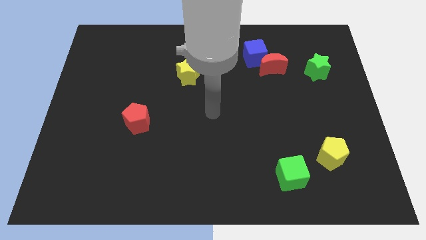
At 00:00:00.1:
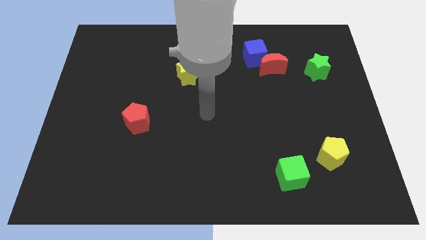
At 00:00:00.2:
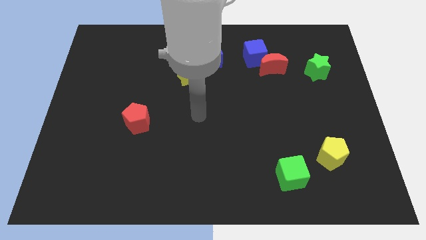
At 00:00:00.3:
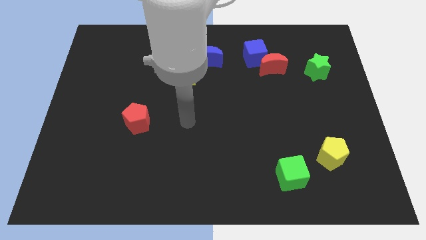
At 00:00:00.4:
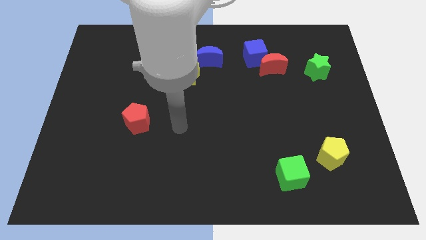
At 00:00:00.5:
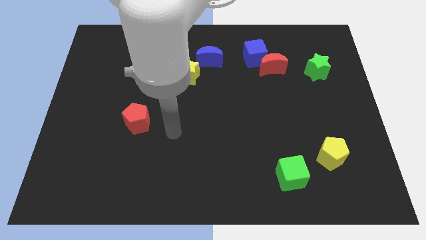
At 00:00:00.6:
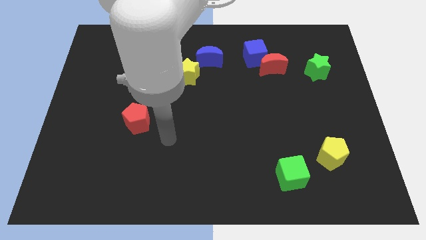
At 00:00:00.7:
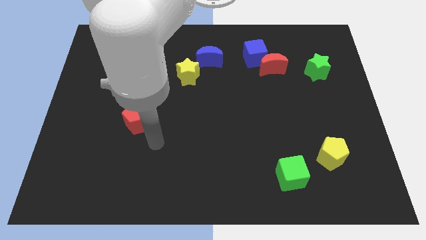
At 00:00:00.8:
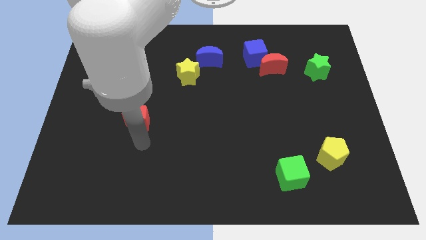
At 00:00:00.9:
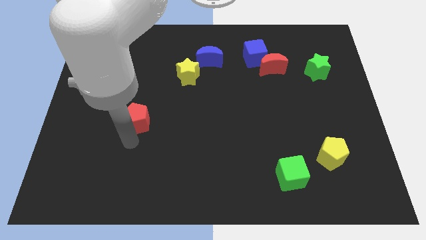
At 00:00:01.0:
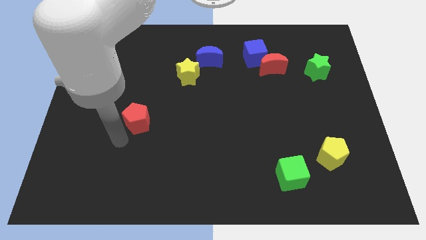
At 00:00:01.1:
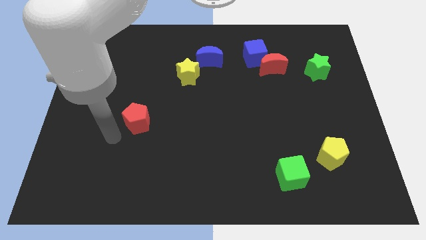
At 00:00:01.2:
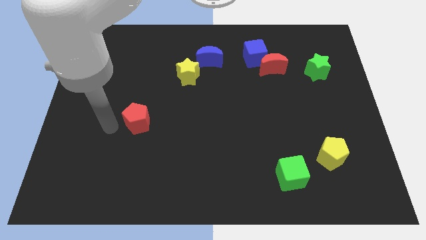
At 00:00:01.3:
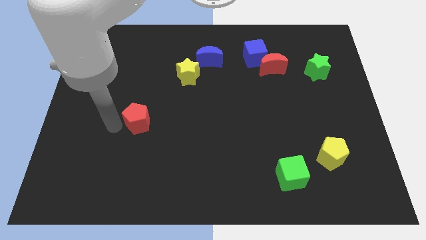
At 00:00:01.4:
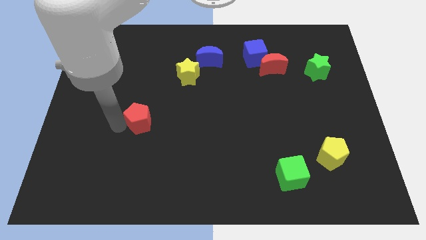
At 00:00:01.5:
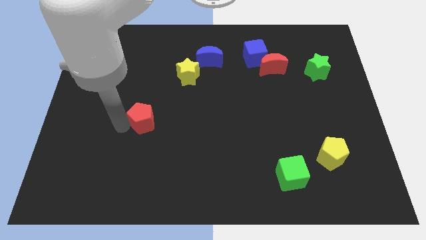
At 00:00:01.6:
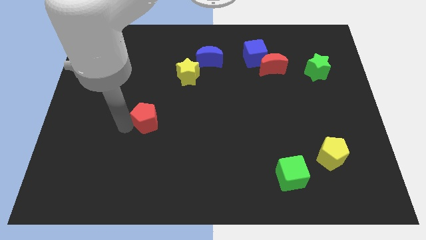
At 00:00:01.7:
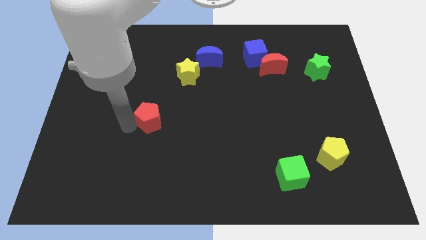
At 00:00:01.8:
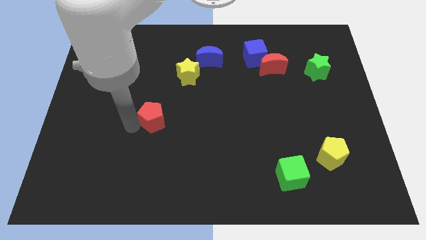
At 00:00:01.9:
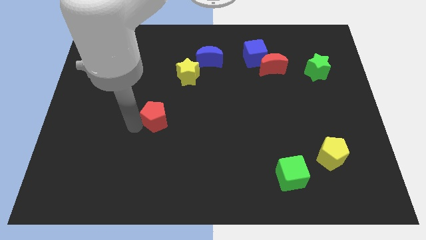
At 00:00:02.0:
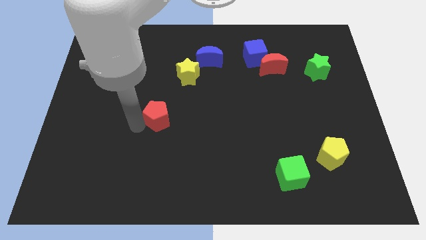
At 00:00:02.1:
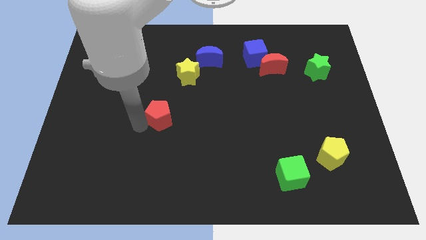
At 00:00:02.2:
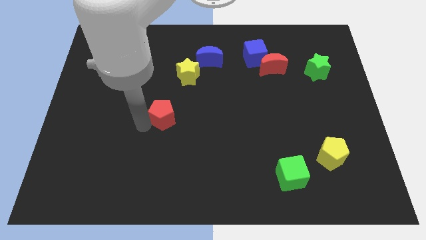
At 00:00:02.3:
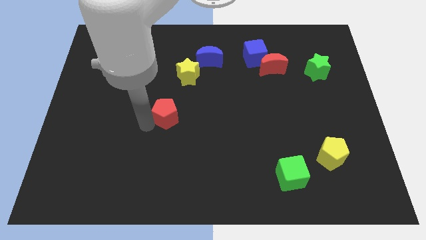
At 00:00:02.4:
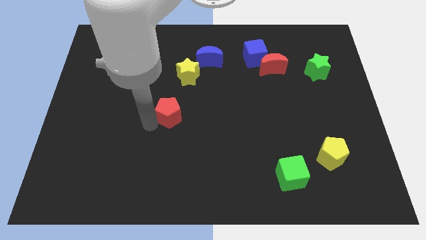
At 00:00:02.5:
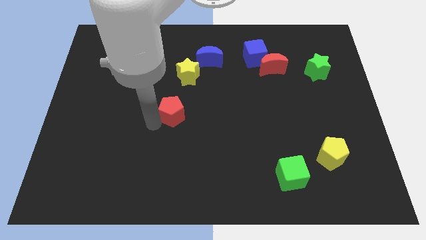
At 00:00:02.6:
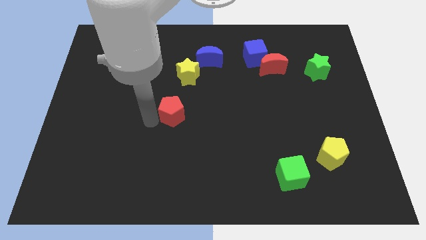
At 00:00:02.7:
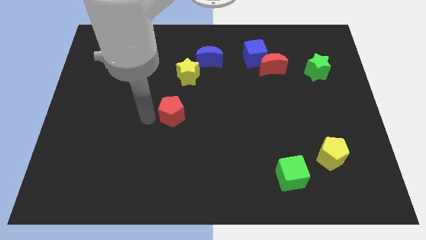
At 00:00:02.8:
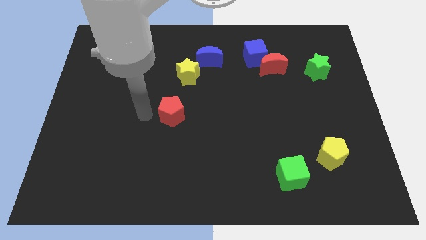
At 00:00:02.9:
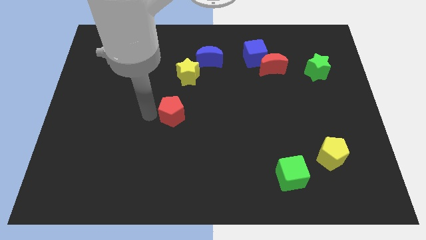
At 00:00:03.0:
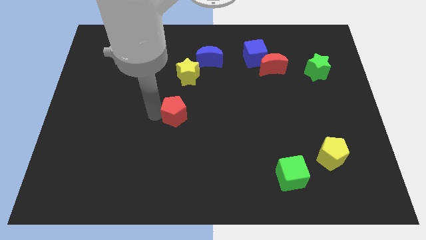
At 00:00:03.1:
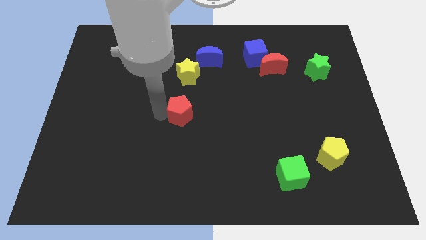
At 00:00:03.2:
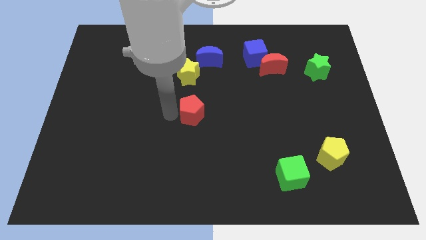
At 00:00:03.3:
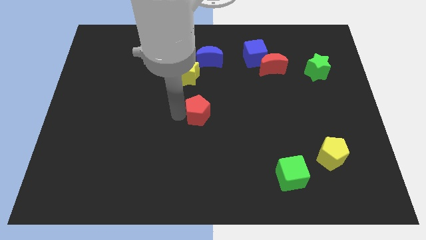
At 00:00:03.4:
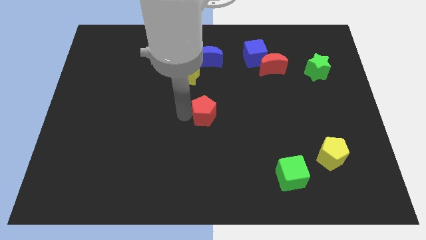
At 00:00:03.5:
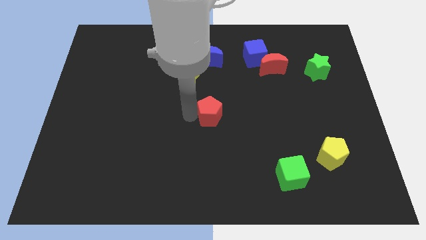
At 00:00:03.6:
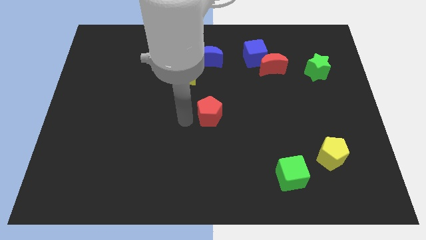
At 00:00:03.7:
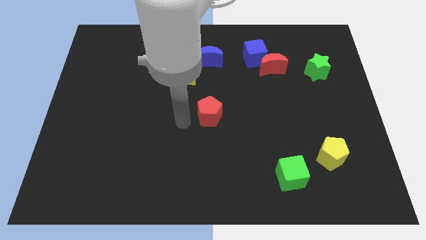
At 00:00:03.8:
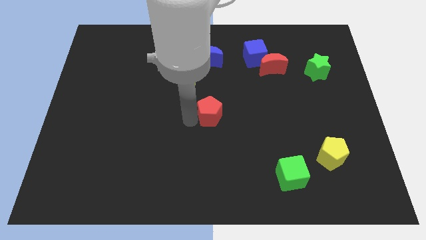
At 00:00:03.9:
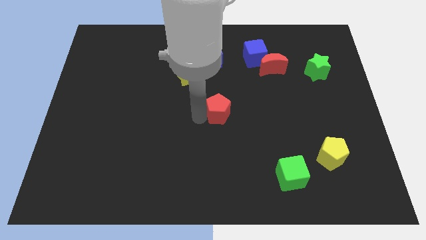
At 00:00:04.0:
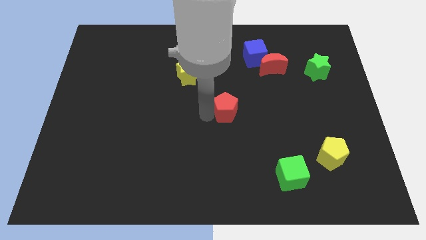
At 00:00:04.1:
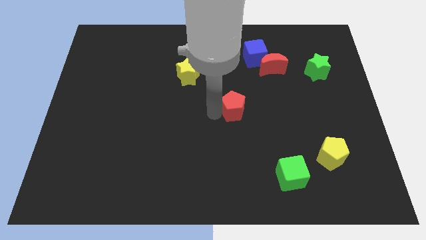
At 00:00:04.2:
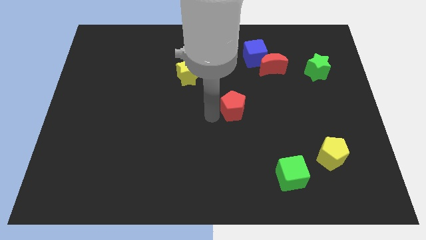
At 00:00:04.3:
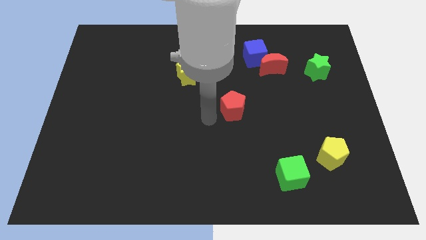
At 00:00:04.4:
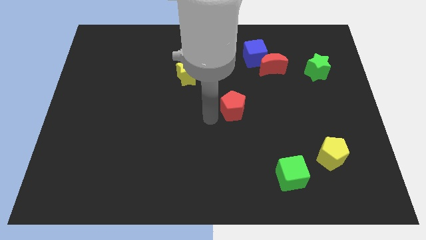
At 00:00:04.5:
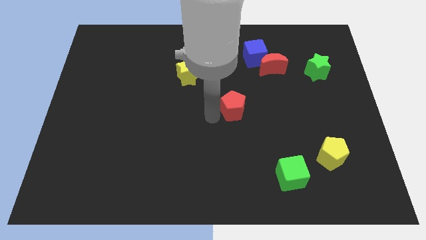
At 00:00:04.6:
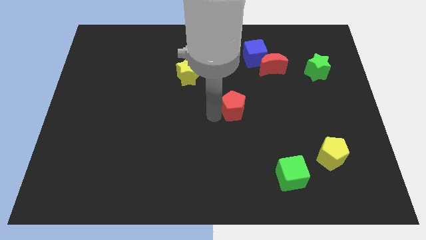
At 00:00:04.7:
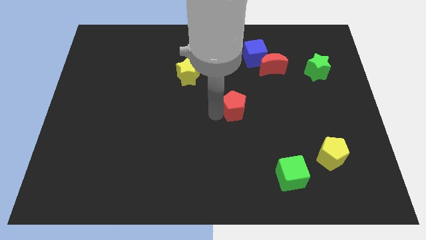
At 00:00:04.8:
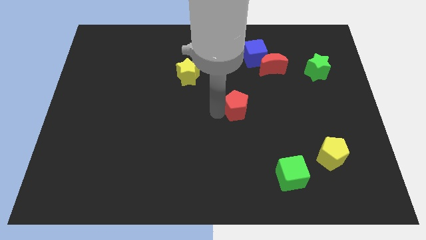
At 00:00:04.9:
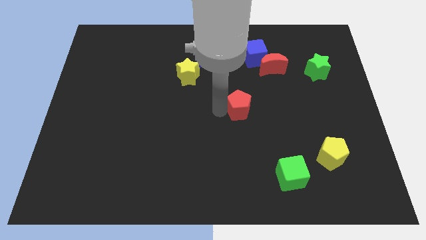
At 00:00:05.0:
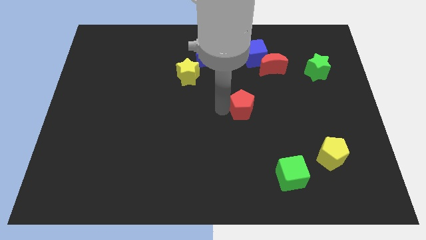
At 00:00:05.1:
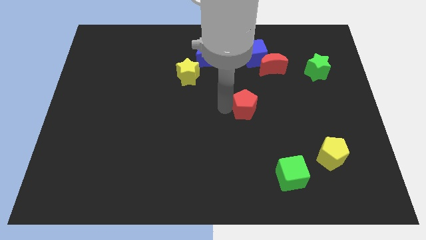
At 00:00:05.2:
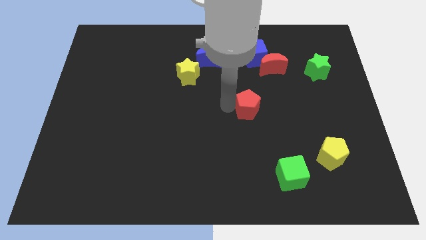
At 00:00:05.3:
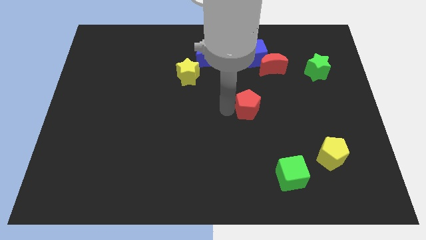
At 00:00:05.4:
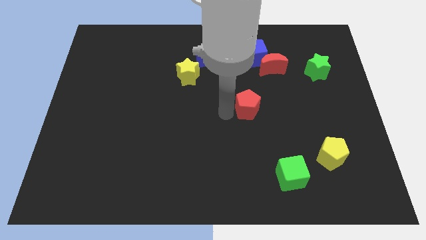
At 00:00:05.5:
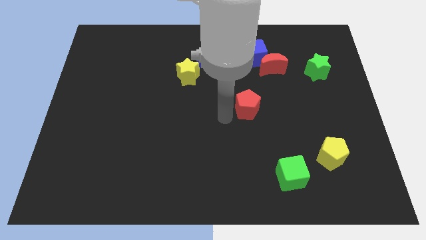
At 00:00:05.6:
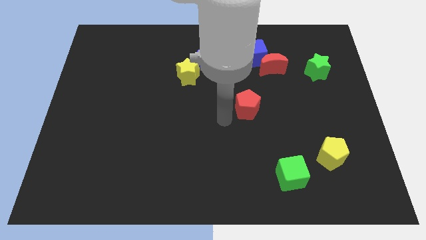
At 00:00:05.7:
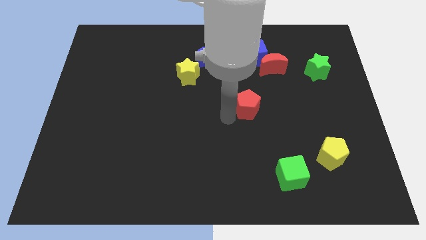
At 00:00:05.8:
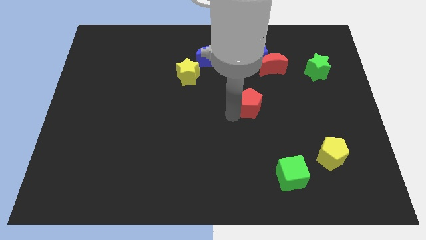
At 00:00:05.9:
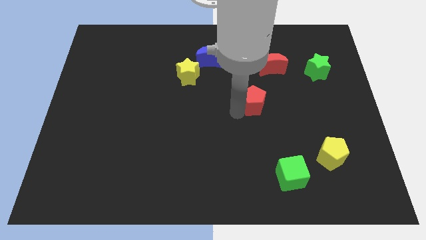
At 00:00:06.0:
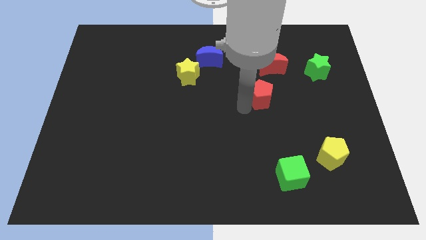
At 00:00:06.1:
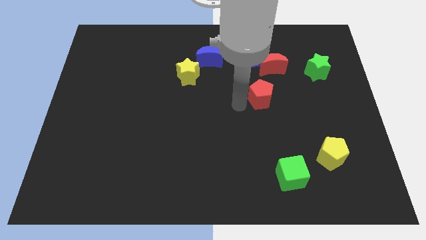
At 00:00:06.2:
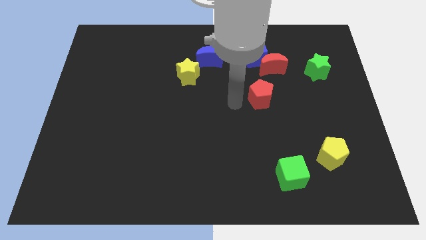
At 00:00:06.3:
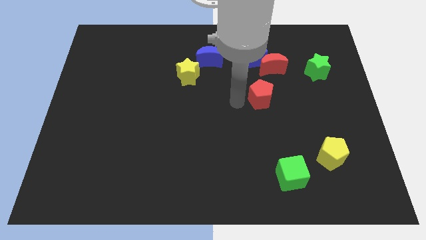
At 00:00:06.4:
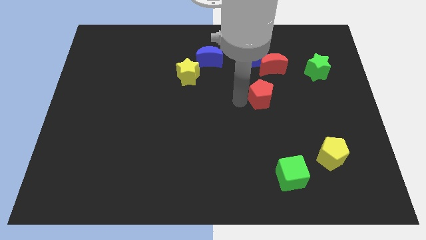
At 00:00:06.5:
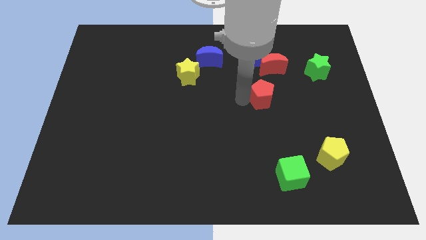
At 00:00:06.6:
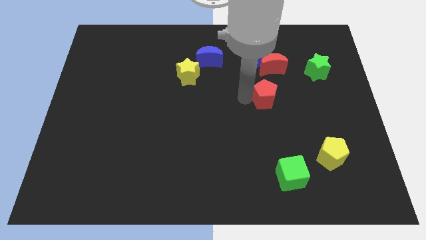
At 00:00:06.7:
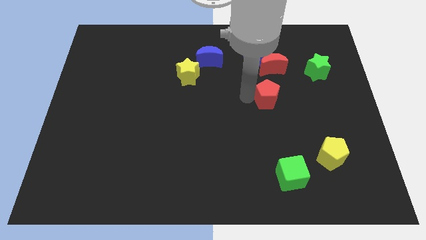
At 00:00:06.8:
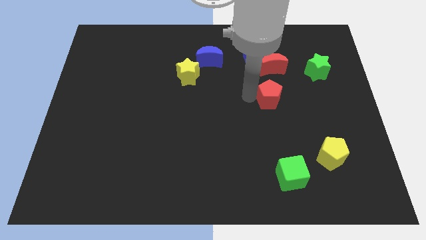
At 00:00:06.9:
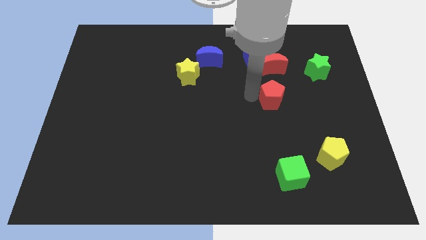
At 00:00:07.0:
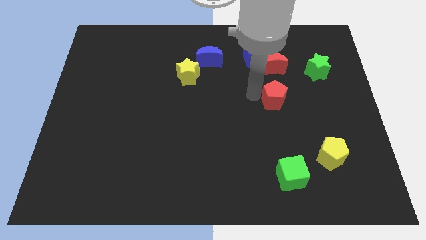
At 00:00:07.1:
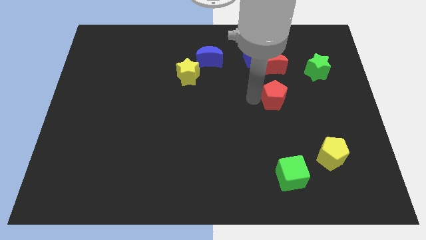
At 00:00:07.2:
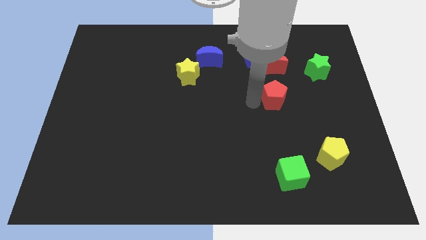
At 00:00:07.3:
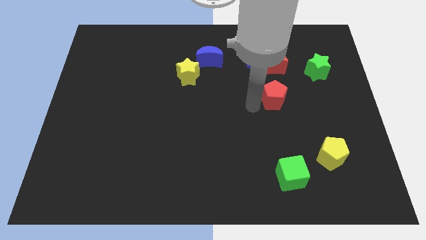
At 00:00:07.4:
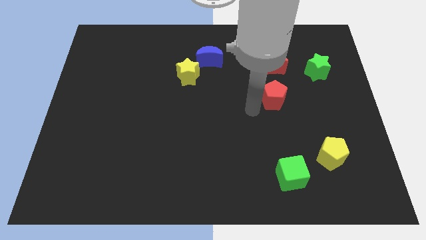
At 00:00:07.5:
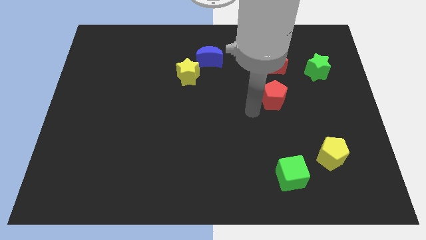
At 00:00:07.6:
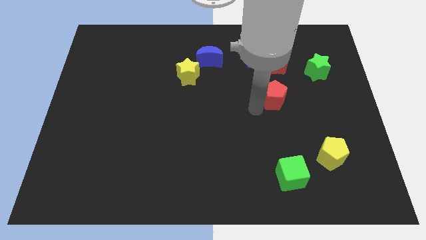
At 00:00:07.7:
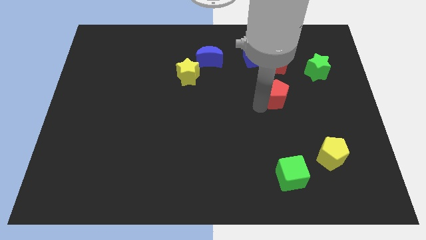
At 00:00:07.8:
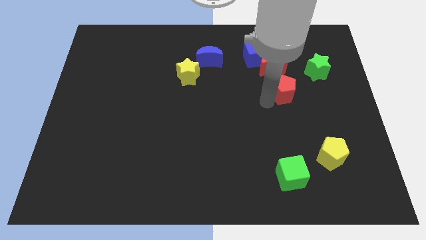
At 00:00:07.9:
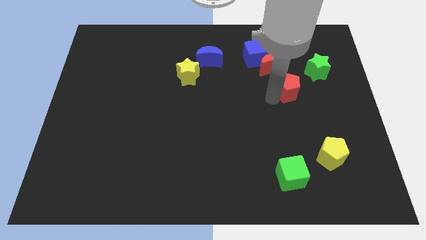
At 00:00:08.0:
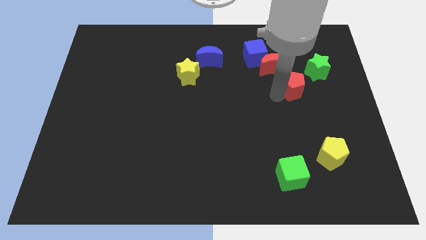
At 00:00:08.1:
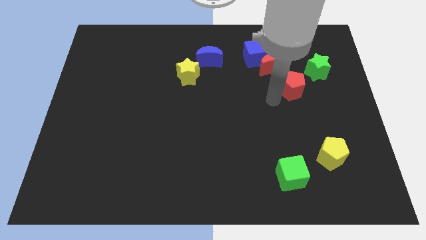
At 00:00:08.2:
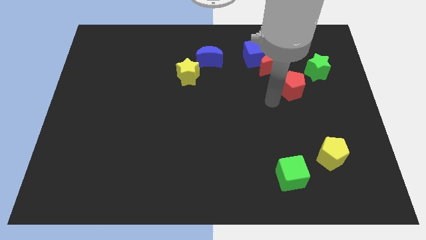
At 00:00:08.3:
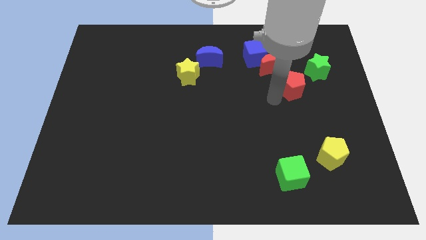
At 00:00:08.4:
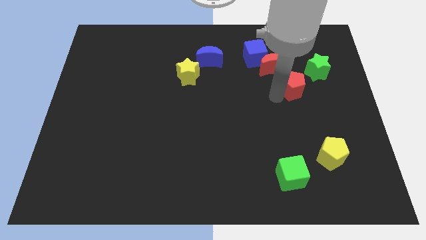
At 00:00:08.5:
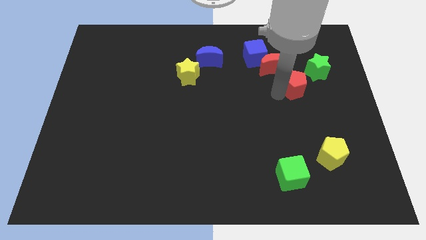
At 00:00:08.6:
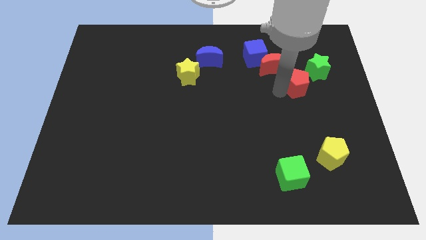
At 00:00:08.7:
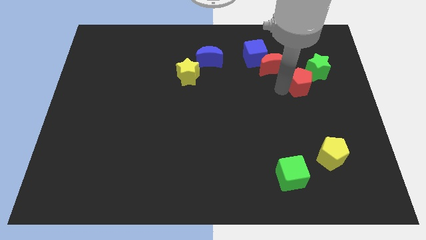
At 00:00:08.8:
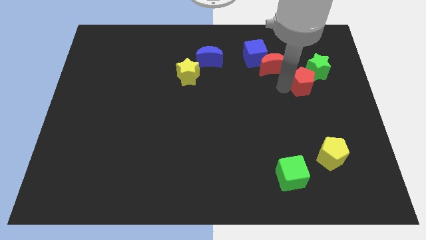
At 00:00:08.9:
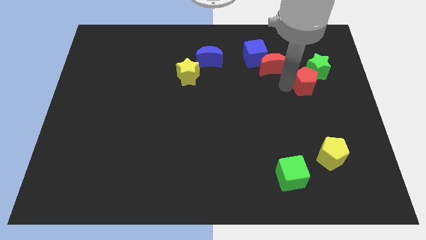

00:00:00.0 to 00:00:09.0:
move the red pentagon towards the green star
